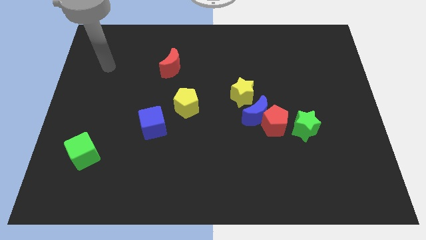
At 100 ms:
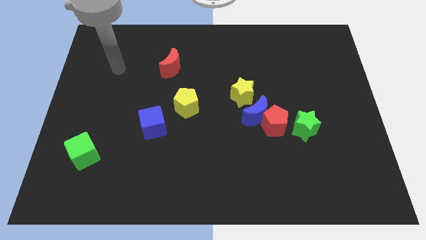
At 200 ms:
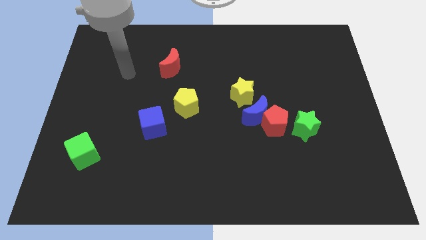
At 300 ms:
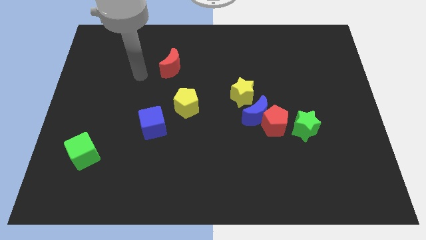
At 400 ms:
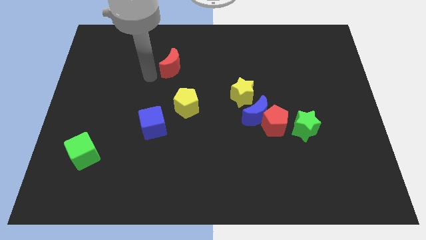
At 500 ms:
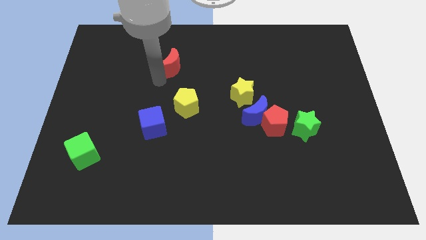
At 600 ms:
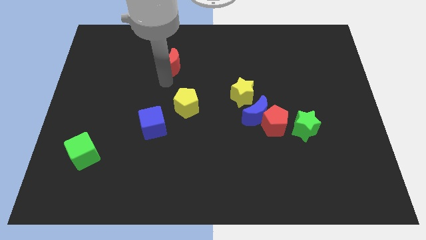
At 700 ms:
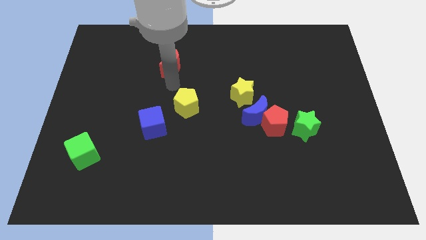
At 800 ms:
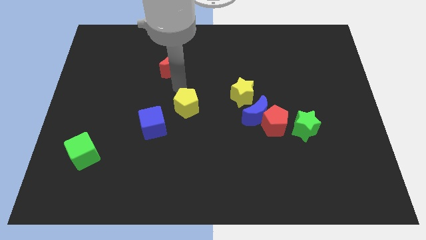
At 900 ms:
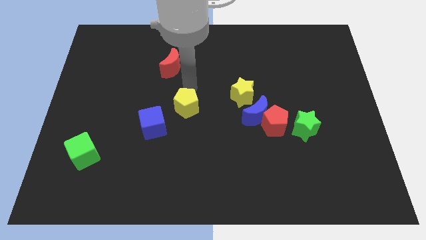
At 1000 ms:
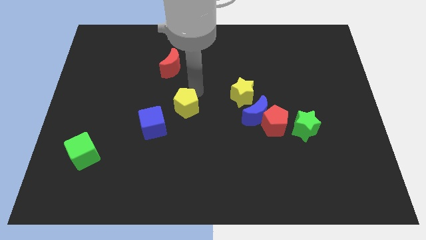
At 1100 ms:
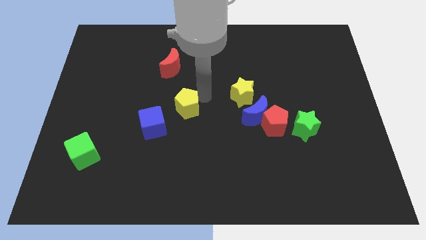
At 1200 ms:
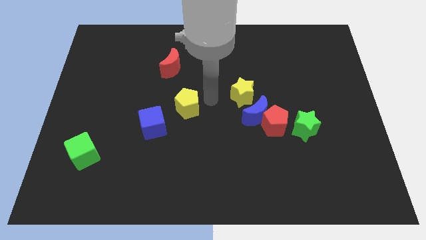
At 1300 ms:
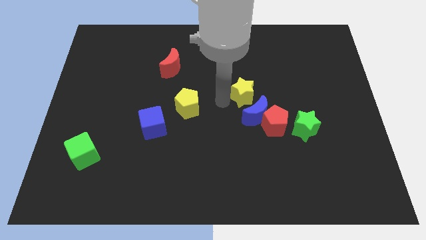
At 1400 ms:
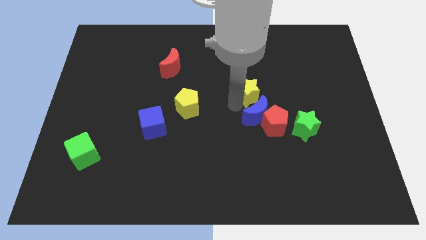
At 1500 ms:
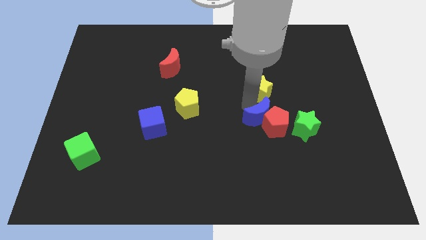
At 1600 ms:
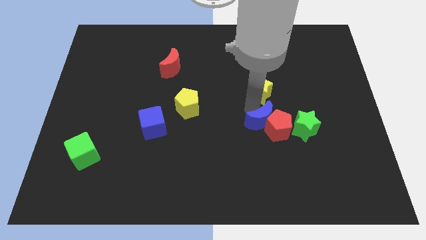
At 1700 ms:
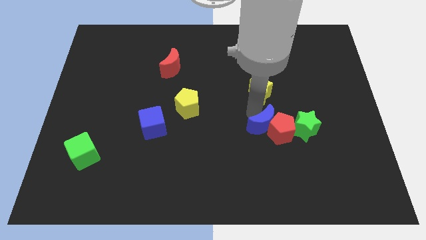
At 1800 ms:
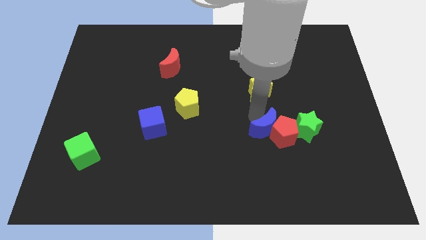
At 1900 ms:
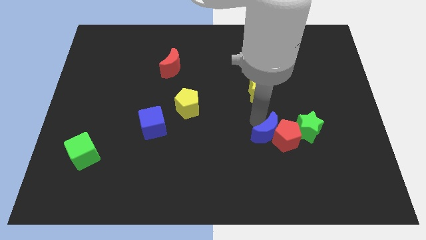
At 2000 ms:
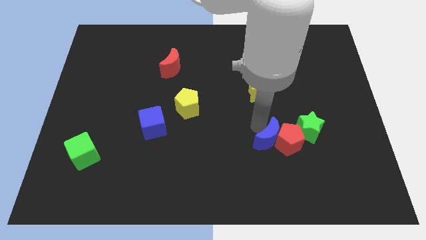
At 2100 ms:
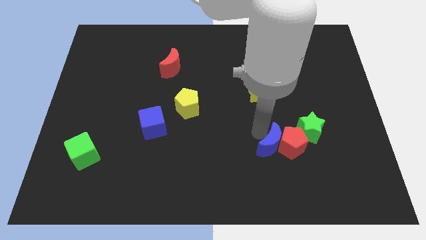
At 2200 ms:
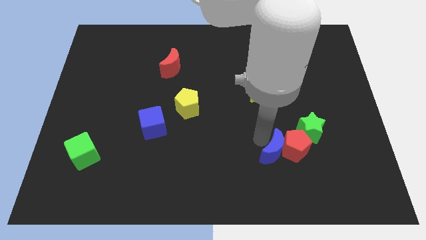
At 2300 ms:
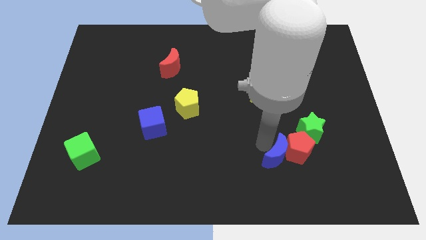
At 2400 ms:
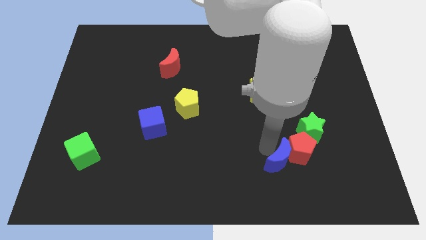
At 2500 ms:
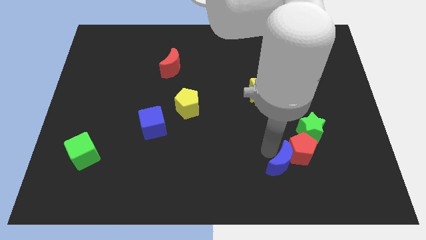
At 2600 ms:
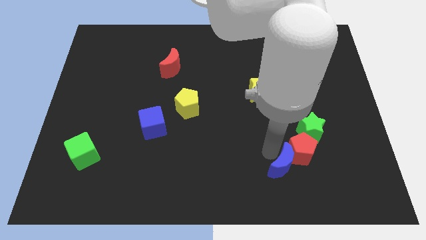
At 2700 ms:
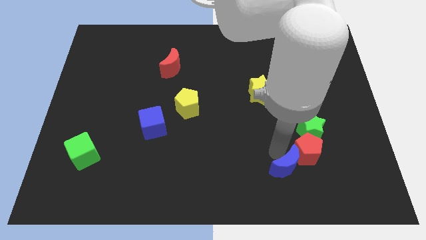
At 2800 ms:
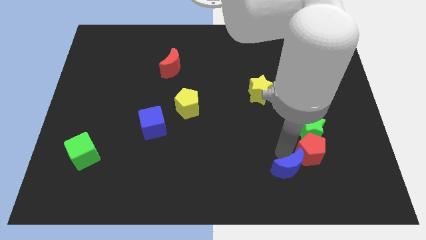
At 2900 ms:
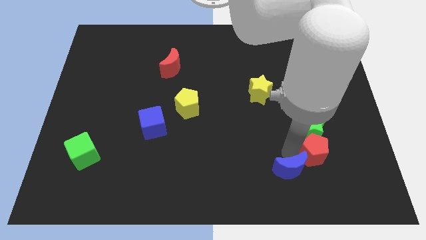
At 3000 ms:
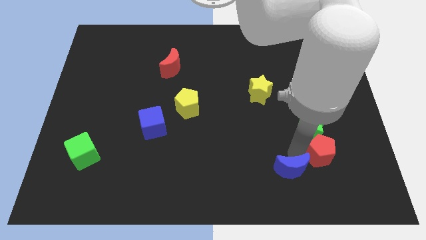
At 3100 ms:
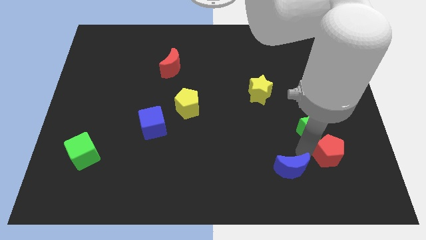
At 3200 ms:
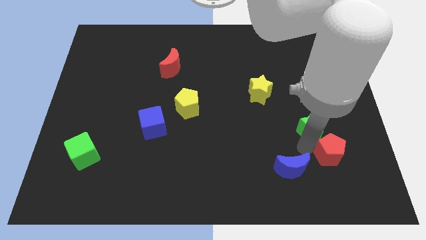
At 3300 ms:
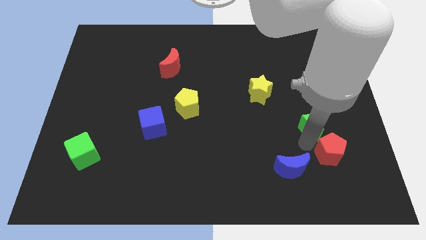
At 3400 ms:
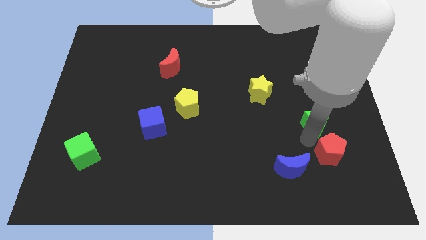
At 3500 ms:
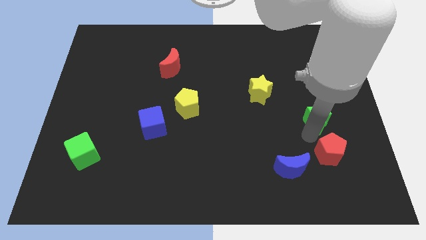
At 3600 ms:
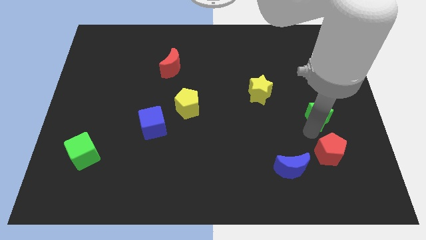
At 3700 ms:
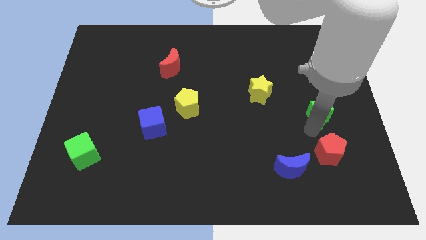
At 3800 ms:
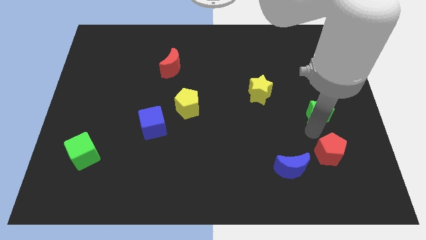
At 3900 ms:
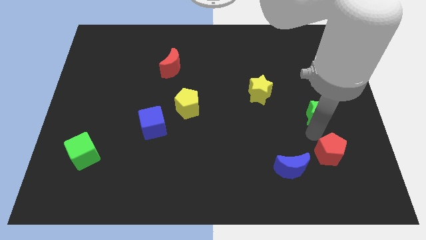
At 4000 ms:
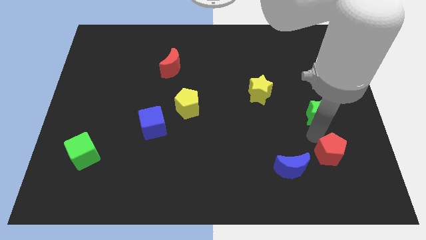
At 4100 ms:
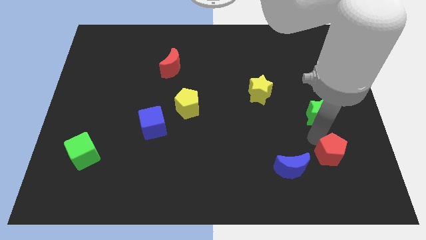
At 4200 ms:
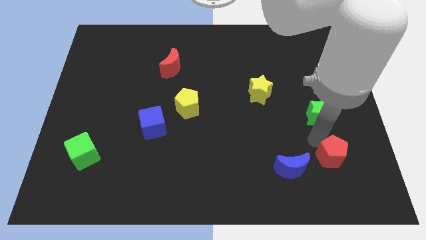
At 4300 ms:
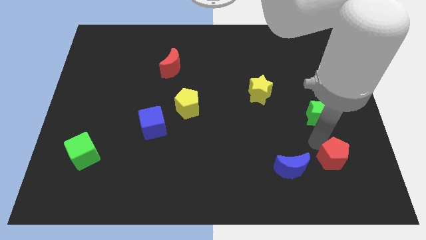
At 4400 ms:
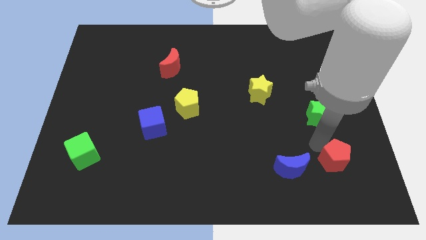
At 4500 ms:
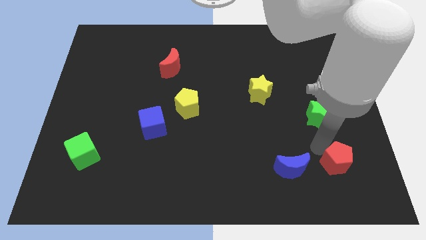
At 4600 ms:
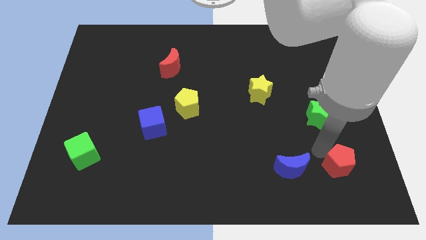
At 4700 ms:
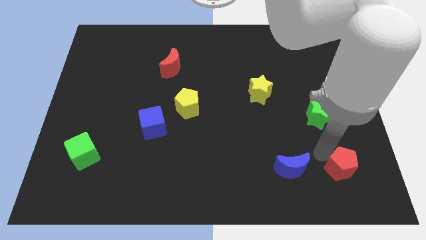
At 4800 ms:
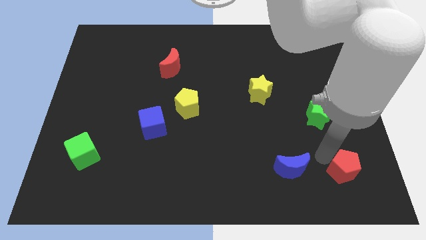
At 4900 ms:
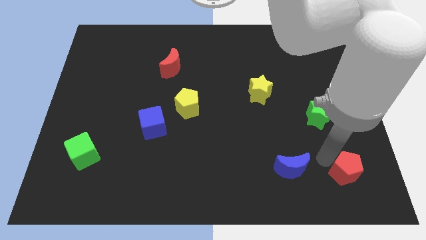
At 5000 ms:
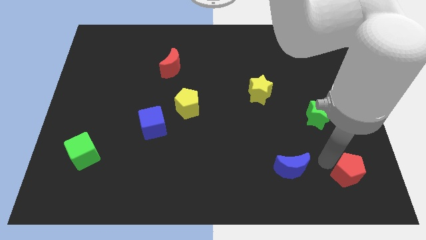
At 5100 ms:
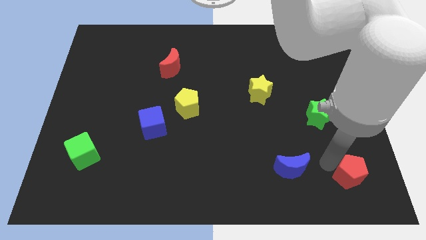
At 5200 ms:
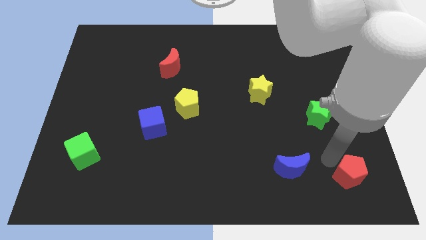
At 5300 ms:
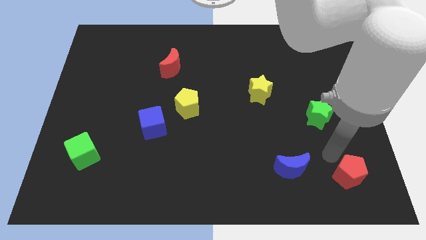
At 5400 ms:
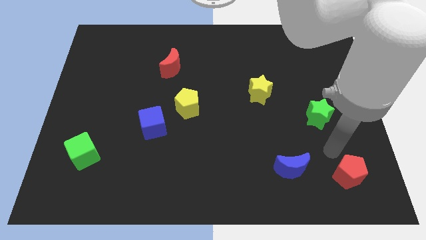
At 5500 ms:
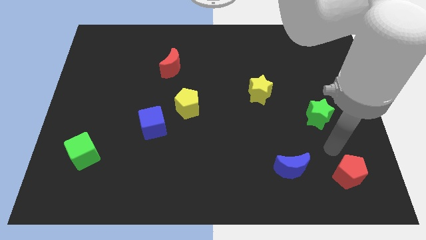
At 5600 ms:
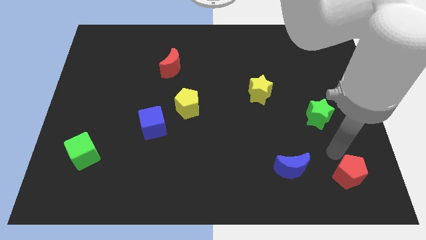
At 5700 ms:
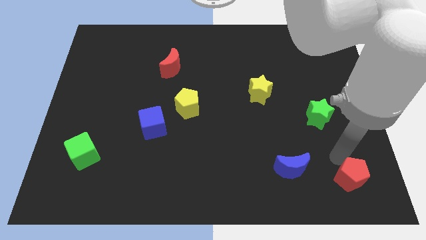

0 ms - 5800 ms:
put the red pentagon to the lower right corner

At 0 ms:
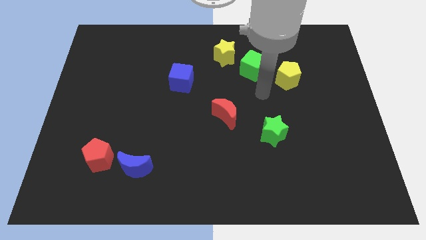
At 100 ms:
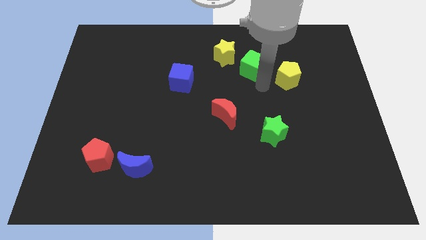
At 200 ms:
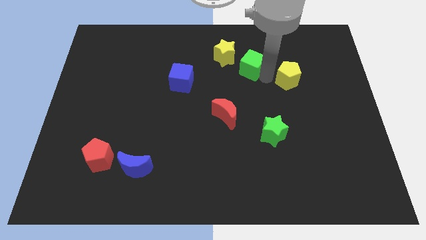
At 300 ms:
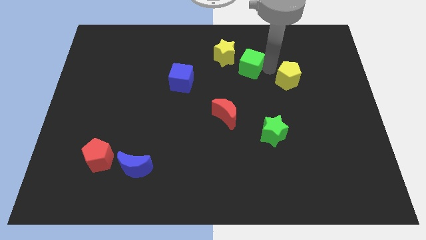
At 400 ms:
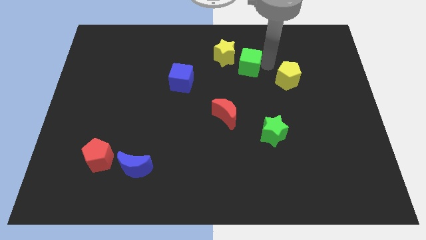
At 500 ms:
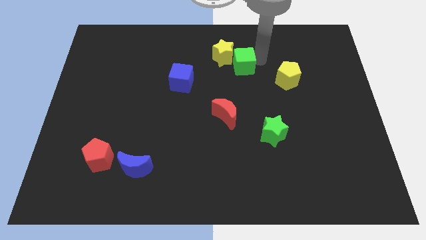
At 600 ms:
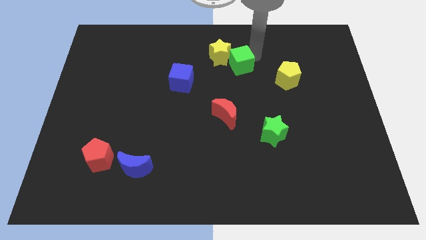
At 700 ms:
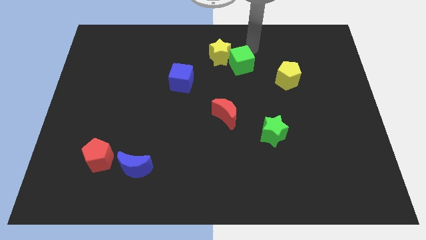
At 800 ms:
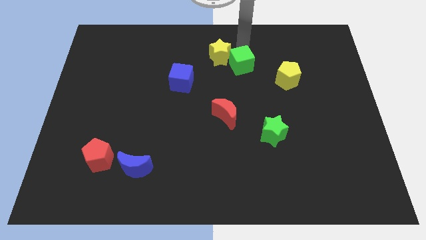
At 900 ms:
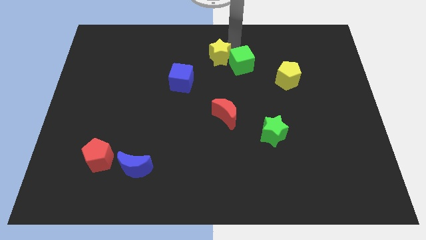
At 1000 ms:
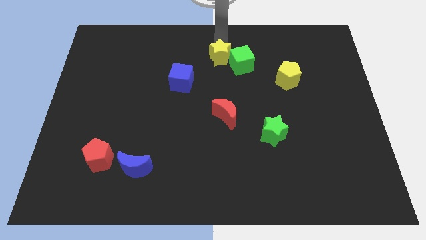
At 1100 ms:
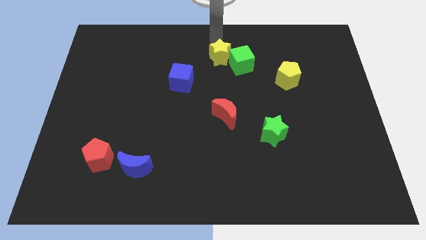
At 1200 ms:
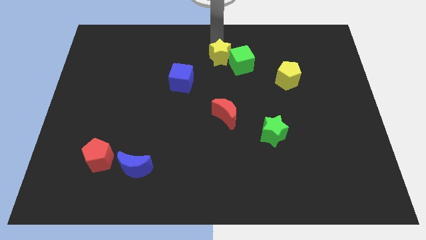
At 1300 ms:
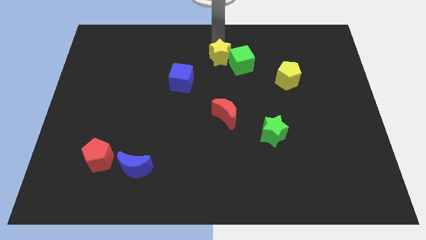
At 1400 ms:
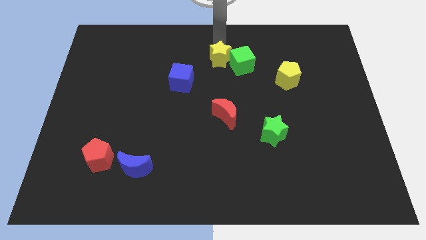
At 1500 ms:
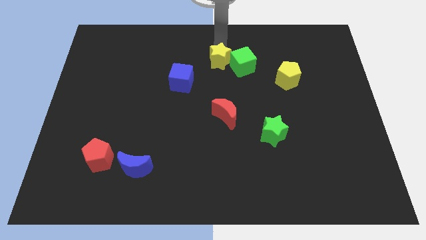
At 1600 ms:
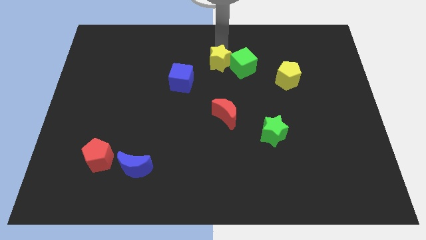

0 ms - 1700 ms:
move the yellow star to the center of the board
